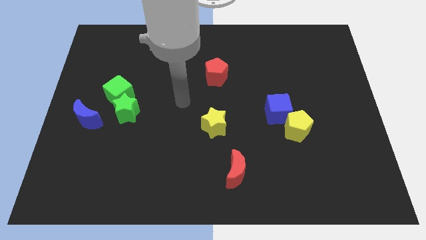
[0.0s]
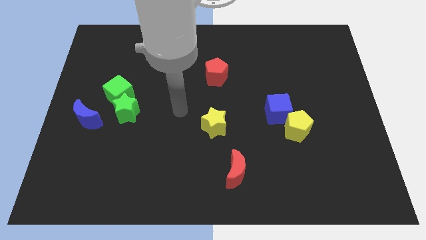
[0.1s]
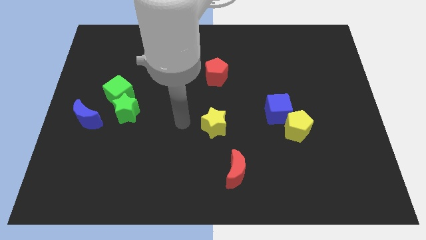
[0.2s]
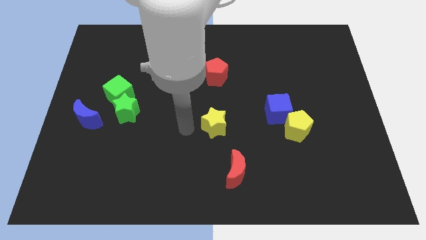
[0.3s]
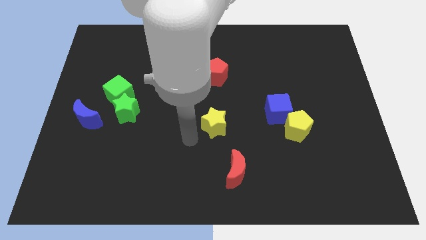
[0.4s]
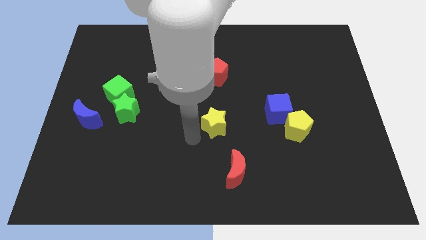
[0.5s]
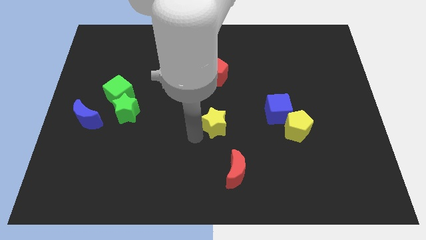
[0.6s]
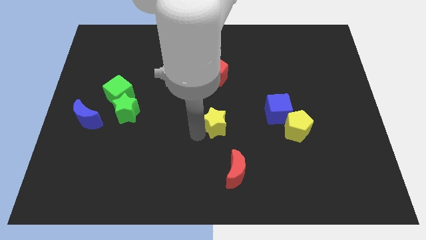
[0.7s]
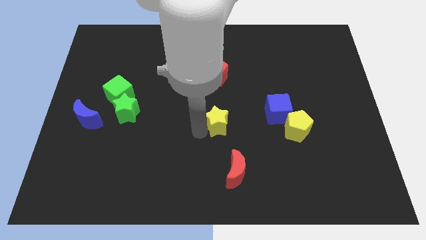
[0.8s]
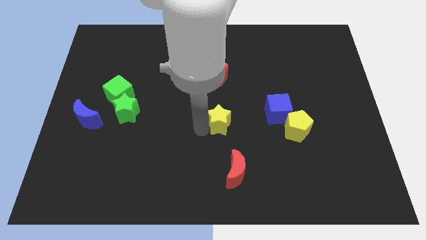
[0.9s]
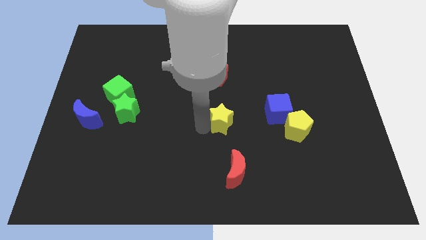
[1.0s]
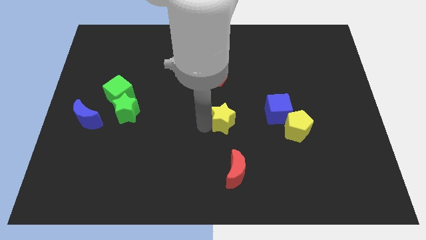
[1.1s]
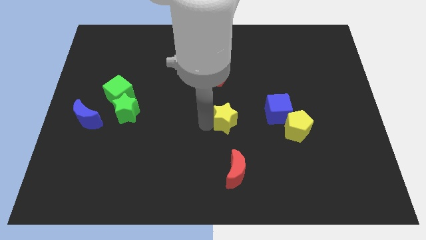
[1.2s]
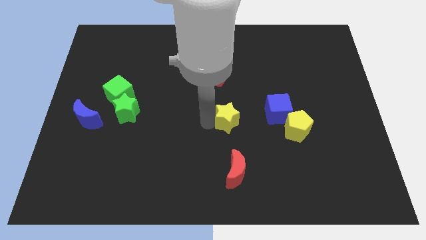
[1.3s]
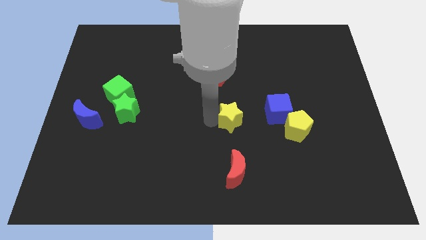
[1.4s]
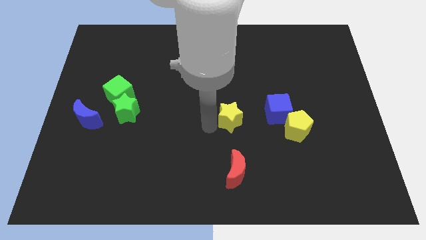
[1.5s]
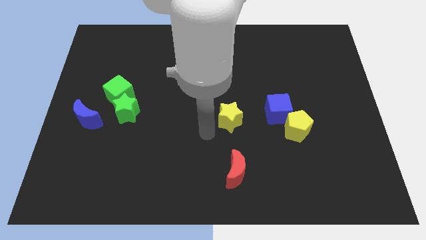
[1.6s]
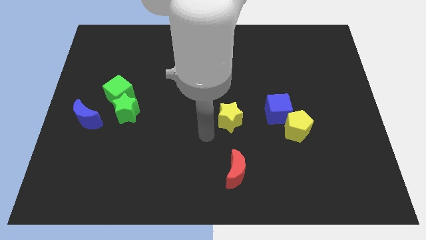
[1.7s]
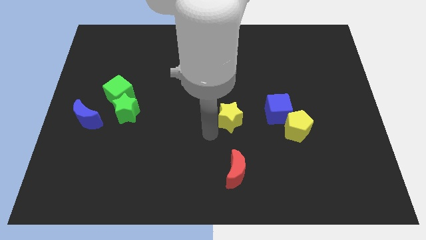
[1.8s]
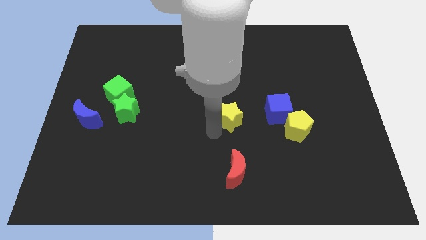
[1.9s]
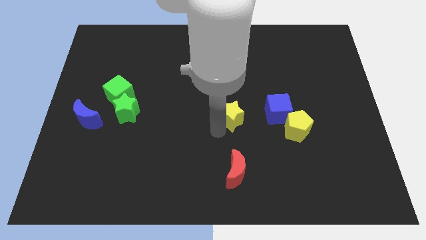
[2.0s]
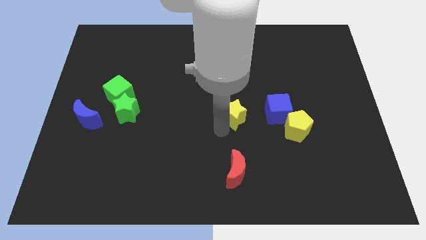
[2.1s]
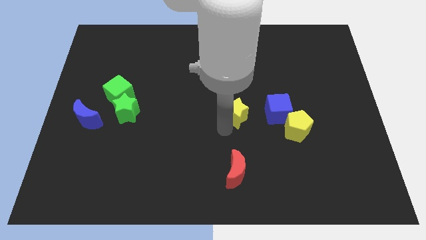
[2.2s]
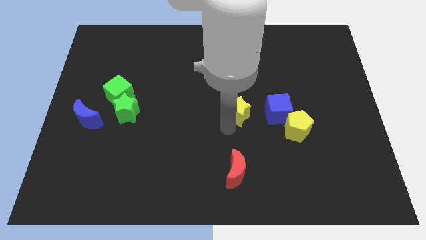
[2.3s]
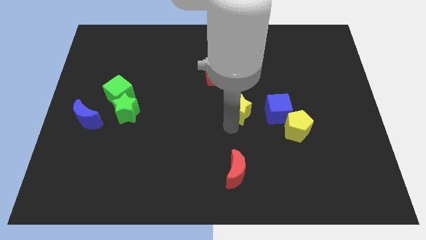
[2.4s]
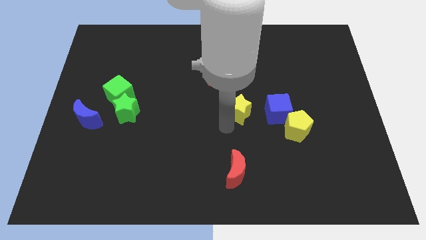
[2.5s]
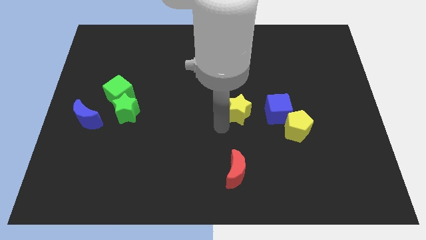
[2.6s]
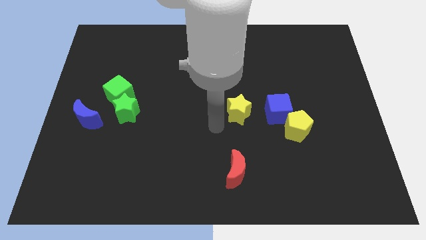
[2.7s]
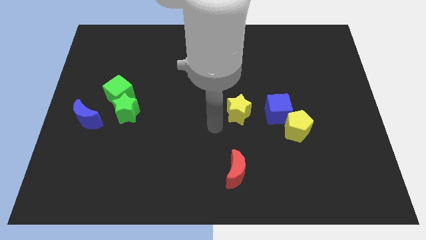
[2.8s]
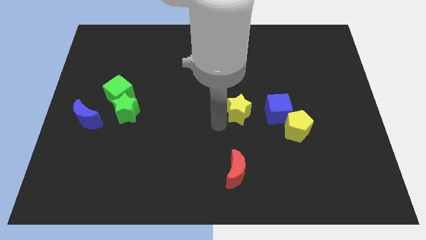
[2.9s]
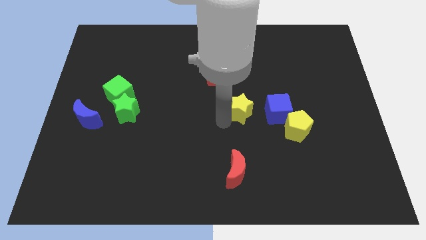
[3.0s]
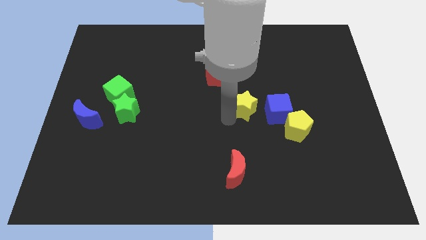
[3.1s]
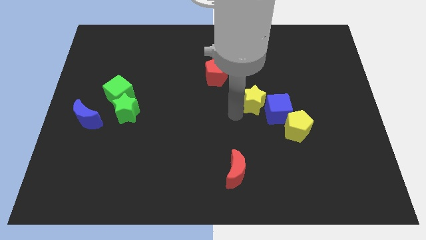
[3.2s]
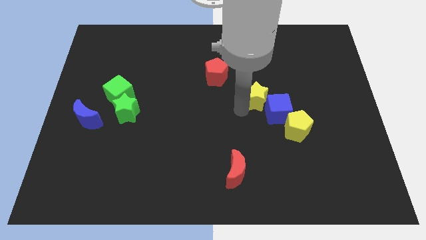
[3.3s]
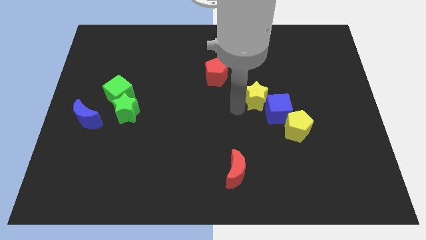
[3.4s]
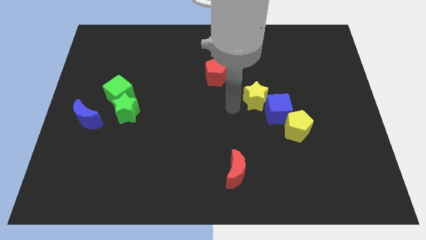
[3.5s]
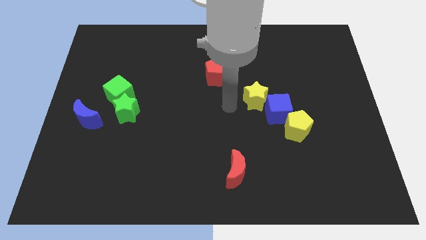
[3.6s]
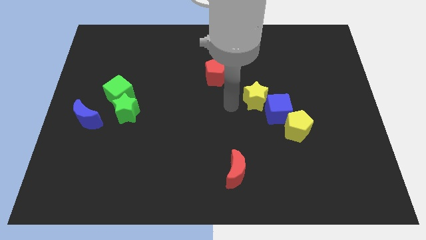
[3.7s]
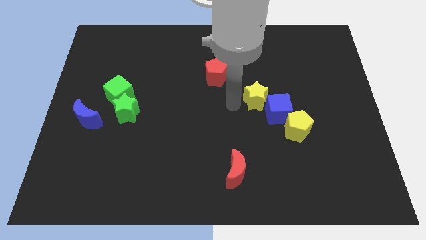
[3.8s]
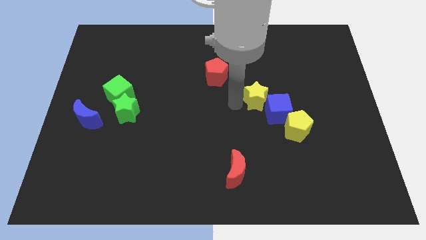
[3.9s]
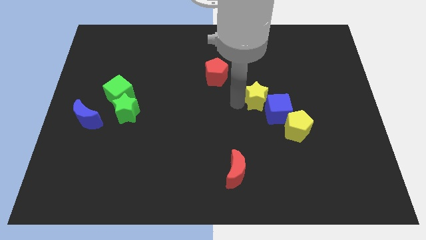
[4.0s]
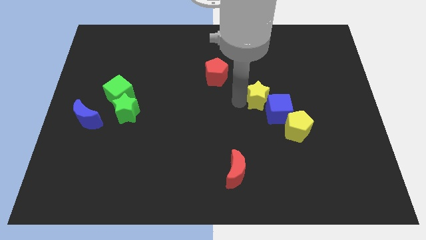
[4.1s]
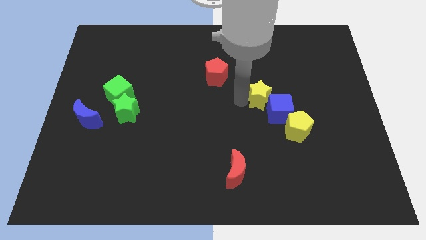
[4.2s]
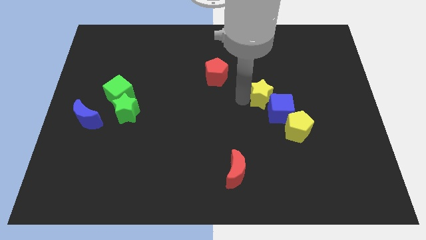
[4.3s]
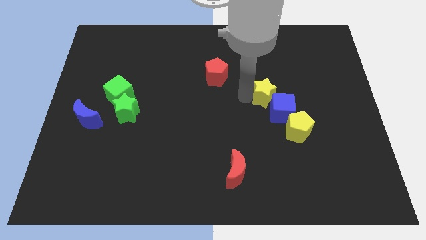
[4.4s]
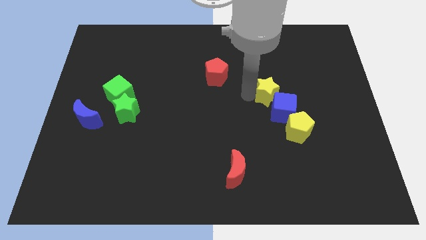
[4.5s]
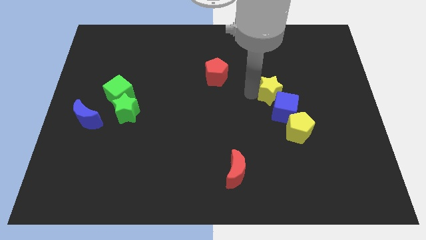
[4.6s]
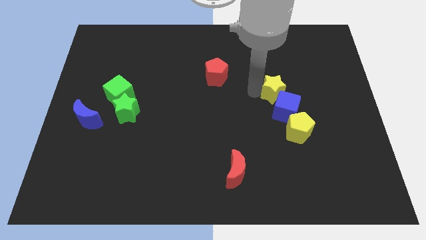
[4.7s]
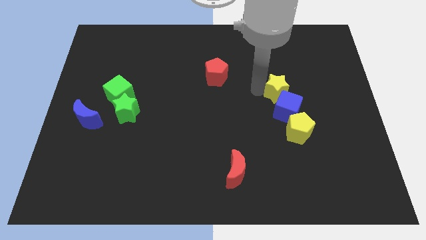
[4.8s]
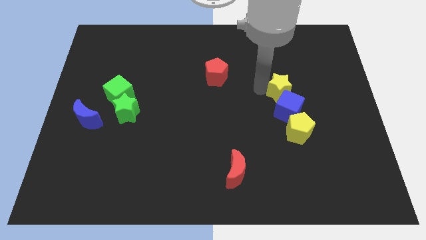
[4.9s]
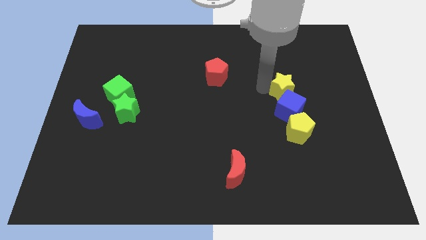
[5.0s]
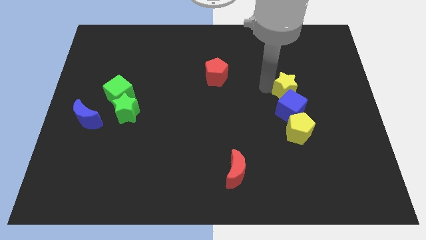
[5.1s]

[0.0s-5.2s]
push the yellow star diagonally up and to the right of the blue cube

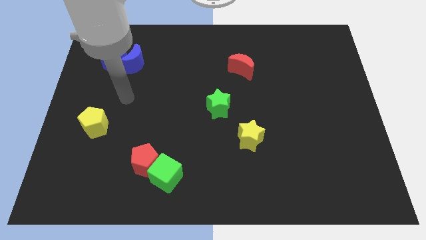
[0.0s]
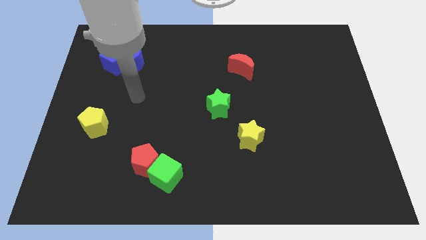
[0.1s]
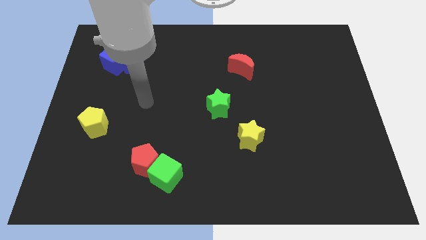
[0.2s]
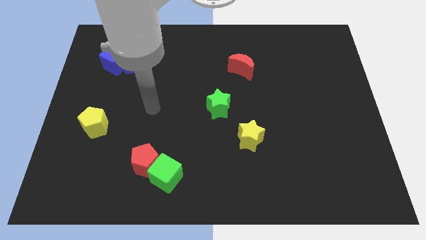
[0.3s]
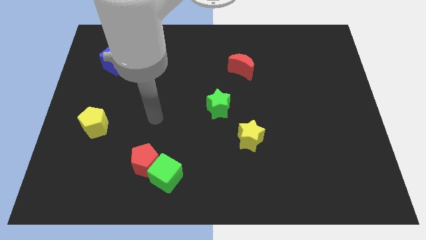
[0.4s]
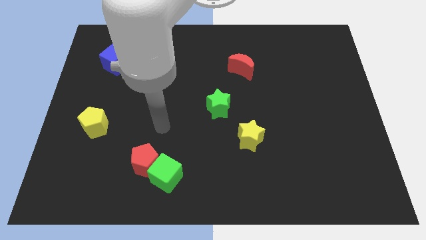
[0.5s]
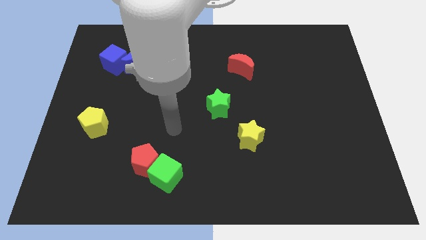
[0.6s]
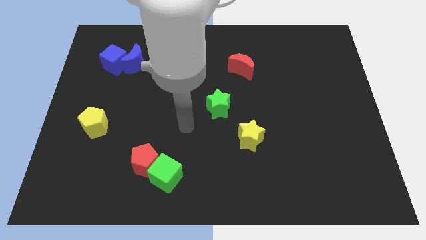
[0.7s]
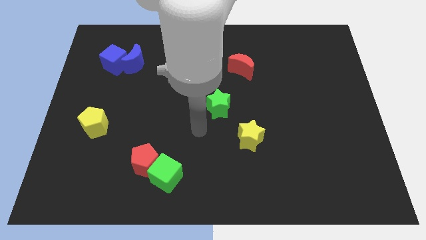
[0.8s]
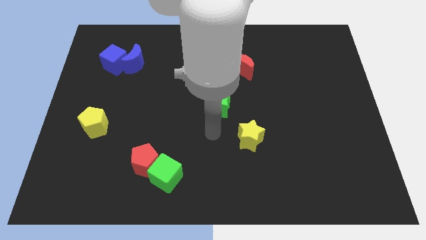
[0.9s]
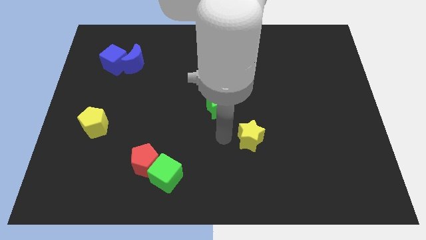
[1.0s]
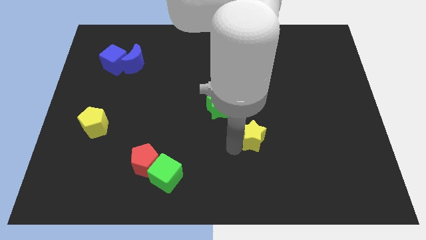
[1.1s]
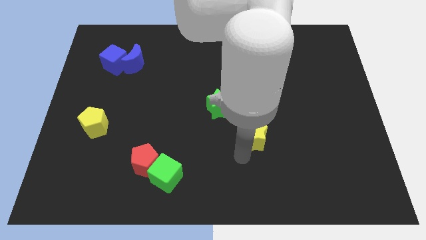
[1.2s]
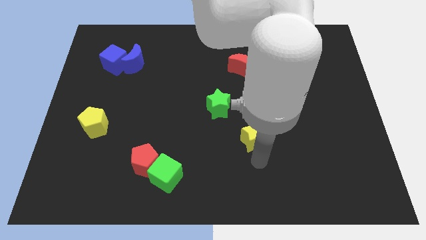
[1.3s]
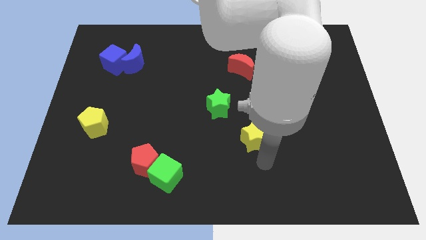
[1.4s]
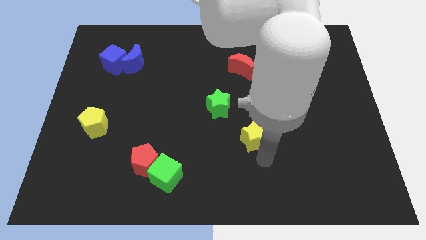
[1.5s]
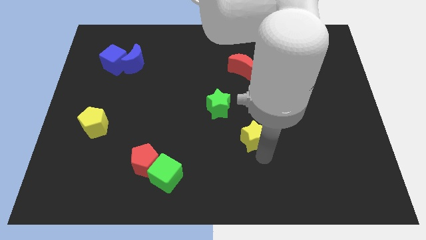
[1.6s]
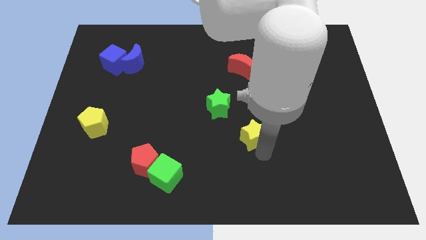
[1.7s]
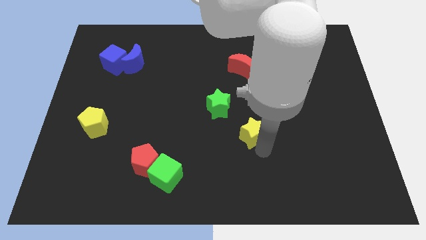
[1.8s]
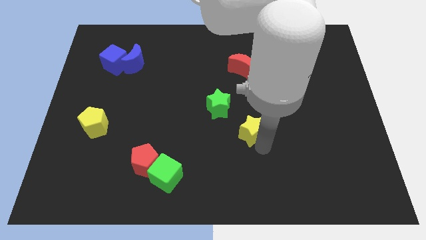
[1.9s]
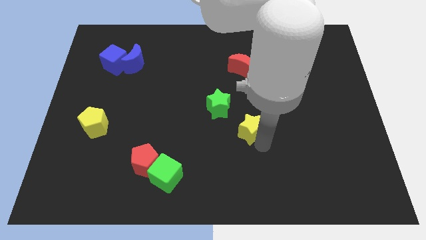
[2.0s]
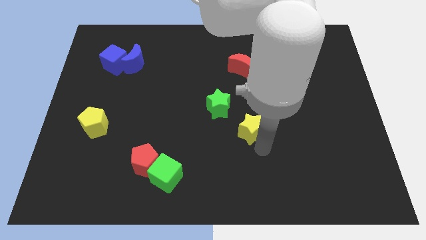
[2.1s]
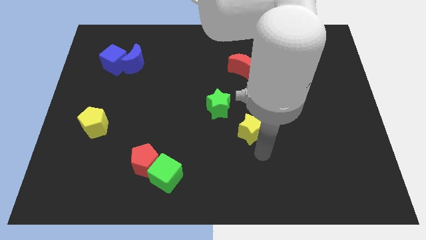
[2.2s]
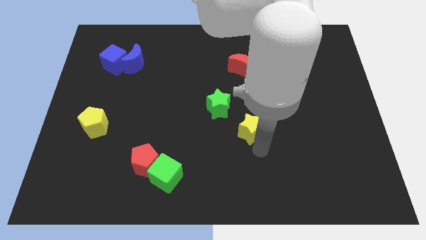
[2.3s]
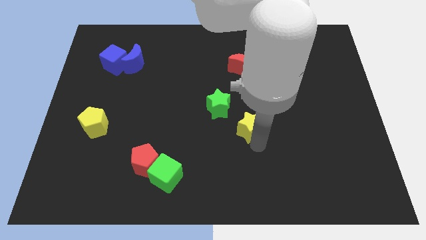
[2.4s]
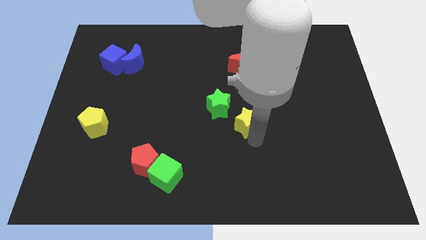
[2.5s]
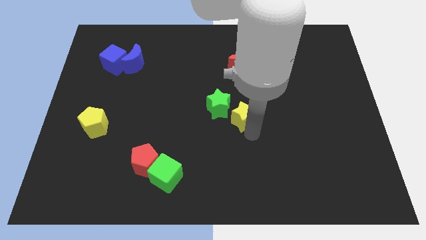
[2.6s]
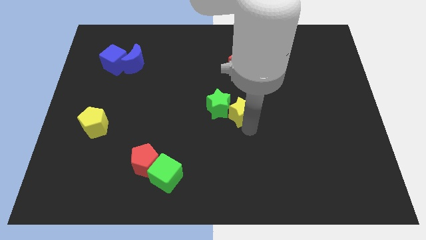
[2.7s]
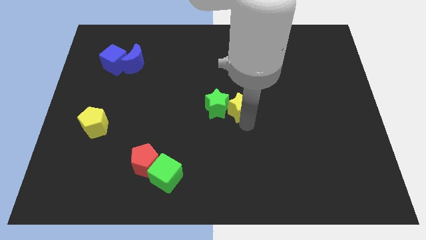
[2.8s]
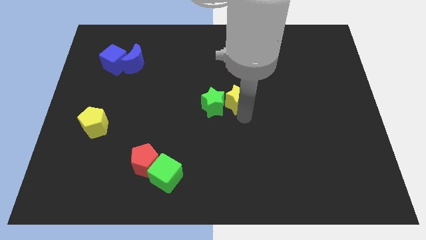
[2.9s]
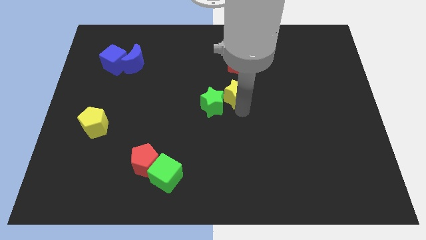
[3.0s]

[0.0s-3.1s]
move the yellow star diagonally down and to the left of the red moon
